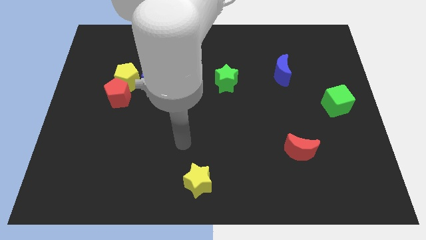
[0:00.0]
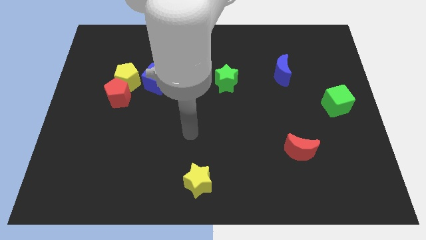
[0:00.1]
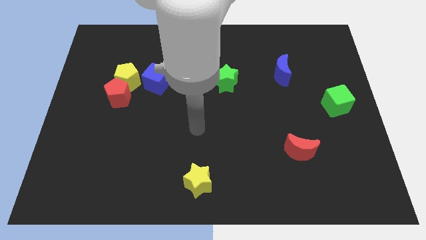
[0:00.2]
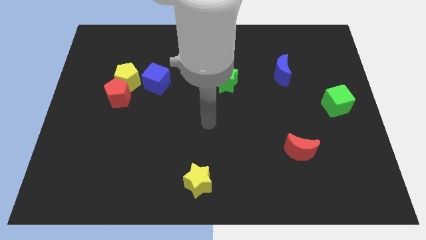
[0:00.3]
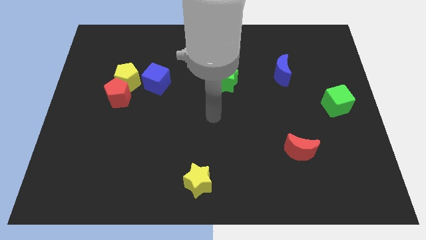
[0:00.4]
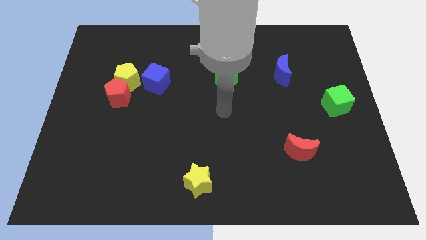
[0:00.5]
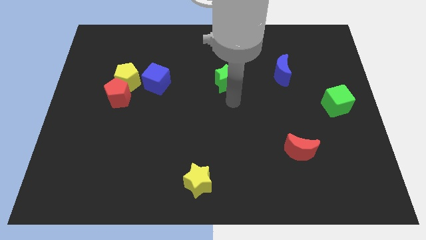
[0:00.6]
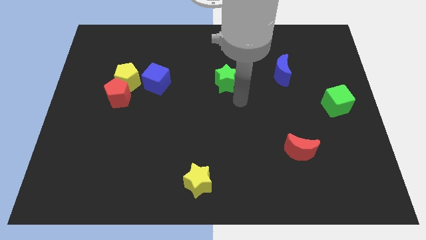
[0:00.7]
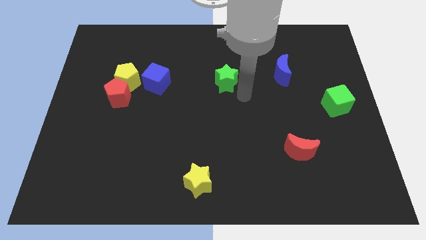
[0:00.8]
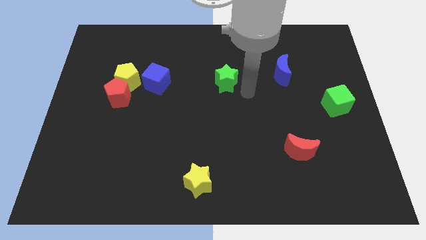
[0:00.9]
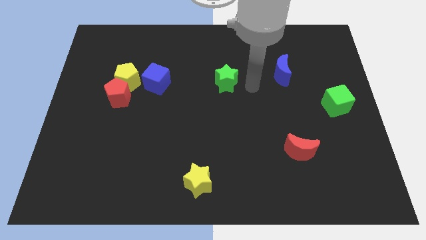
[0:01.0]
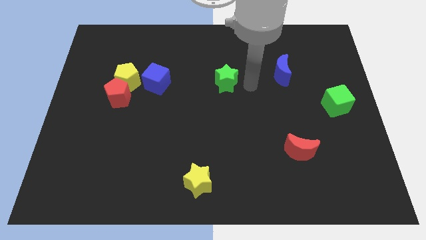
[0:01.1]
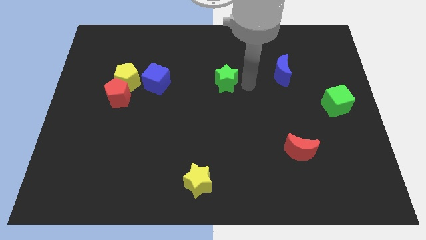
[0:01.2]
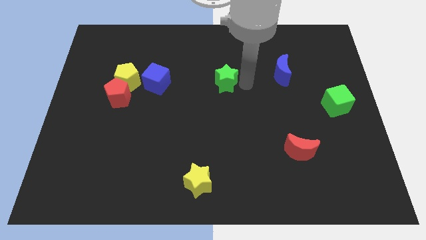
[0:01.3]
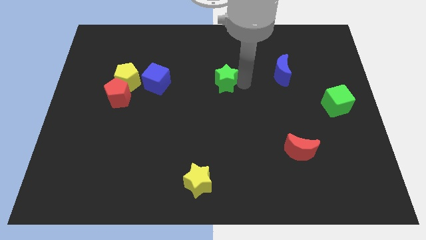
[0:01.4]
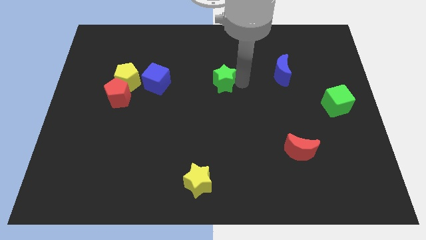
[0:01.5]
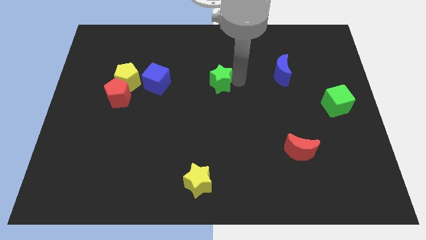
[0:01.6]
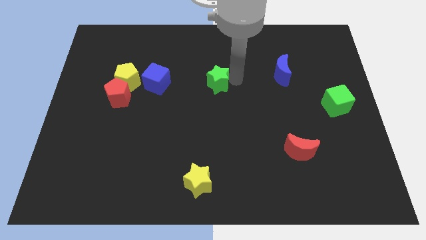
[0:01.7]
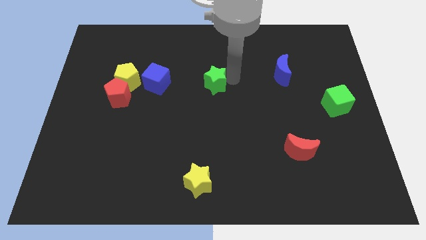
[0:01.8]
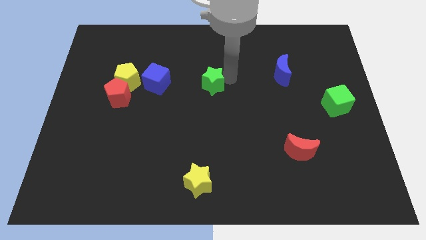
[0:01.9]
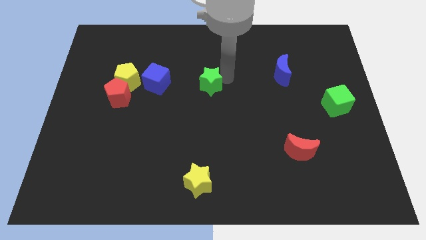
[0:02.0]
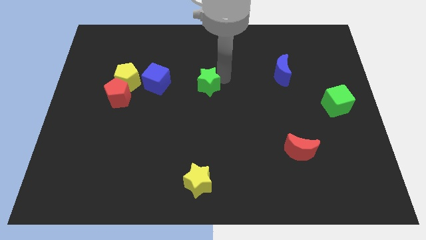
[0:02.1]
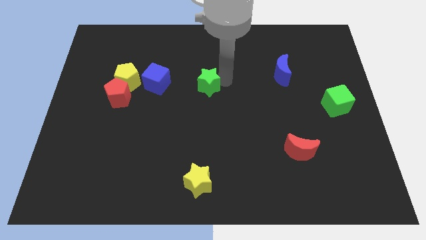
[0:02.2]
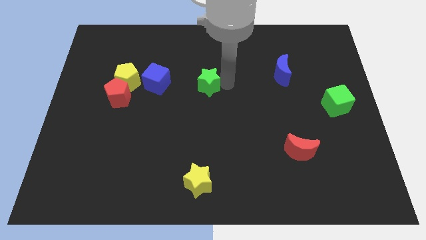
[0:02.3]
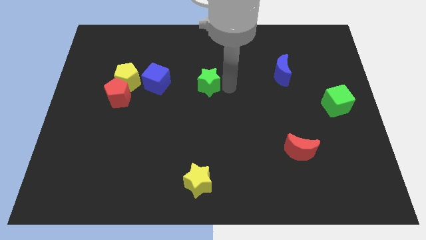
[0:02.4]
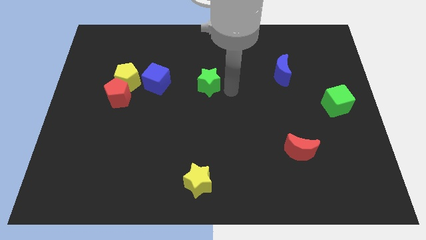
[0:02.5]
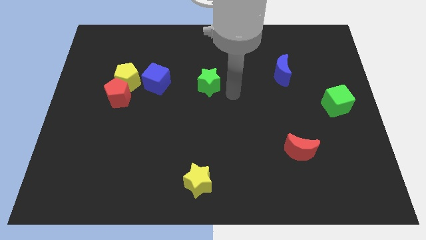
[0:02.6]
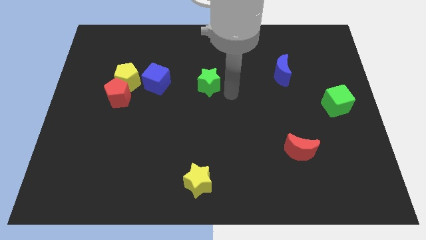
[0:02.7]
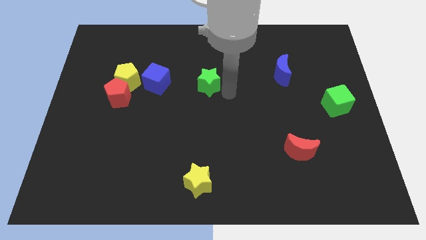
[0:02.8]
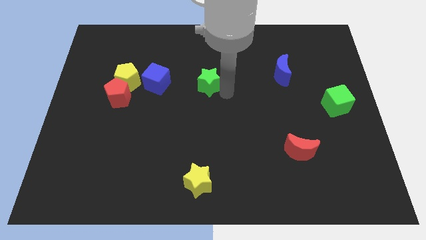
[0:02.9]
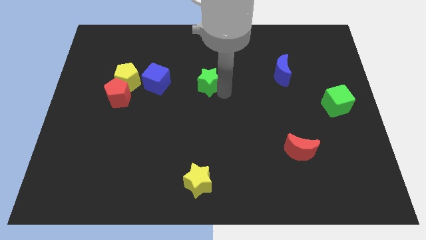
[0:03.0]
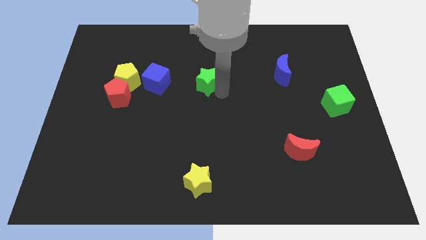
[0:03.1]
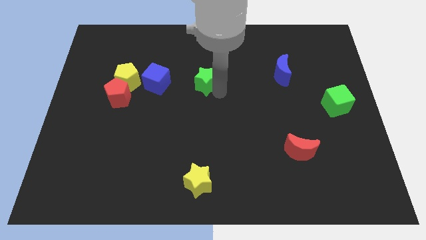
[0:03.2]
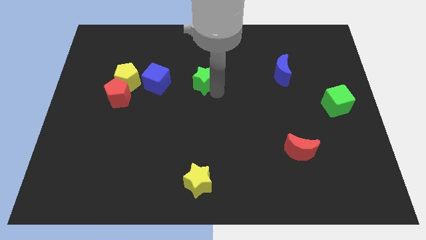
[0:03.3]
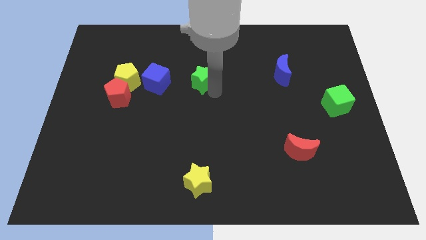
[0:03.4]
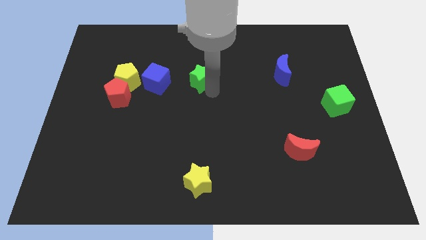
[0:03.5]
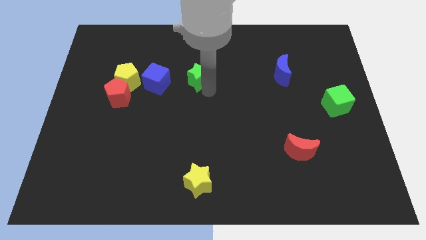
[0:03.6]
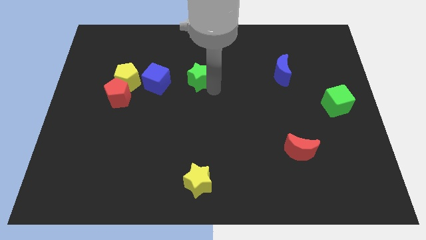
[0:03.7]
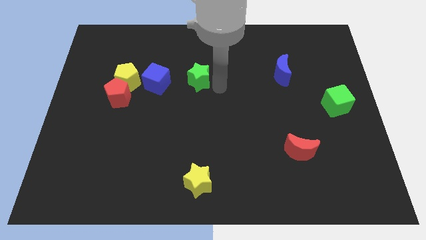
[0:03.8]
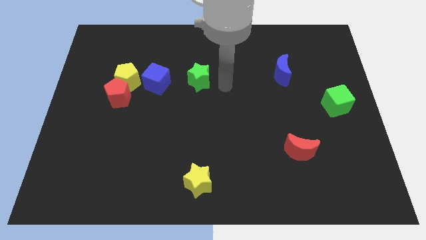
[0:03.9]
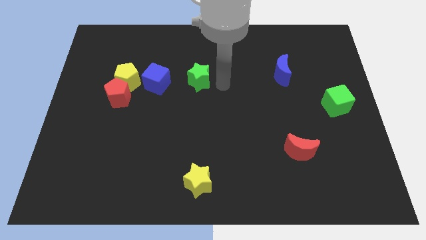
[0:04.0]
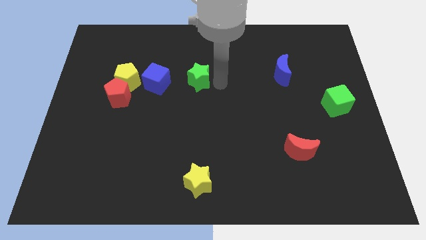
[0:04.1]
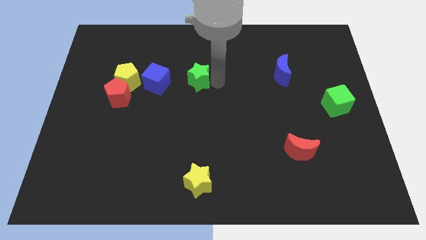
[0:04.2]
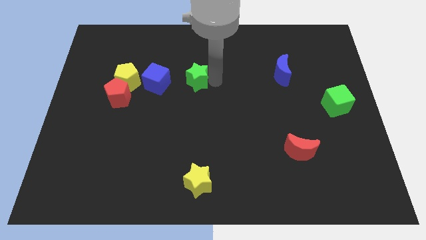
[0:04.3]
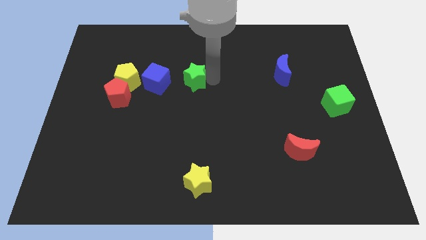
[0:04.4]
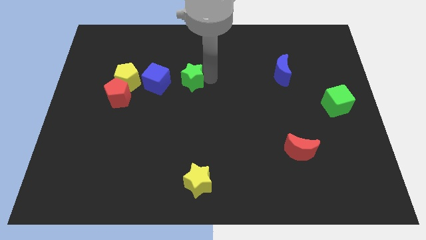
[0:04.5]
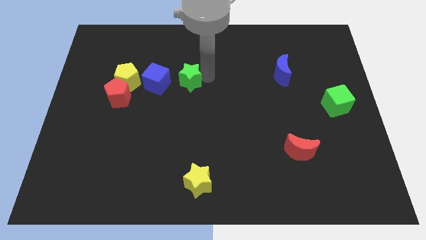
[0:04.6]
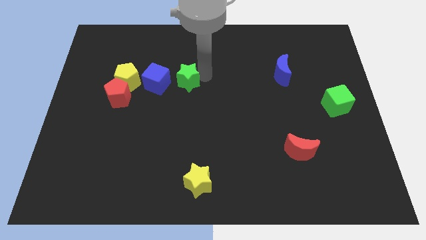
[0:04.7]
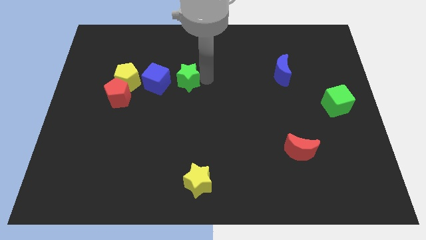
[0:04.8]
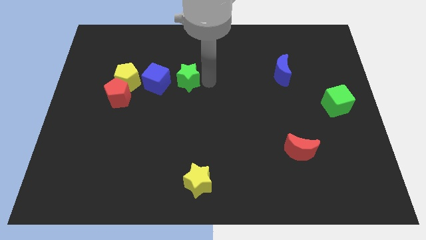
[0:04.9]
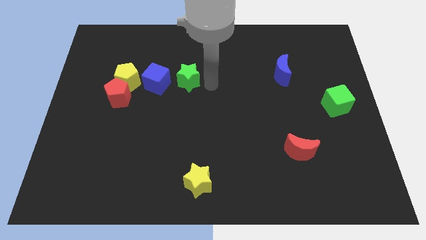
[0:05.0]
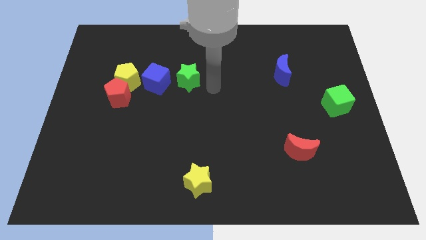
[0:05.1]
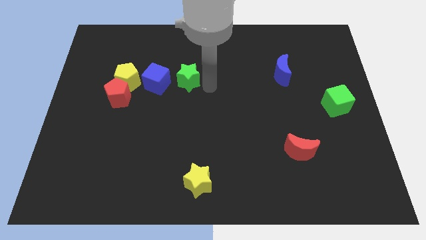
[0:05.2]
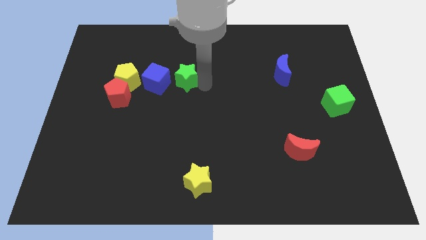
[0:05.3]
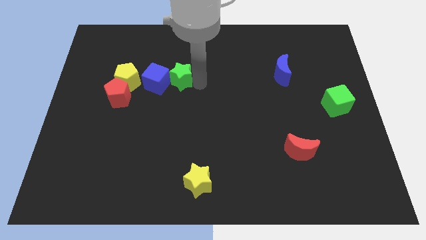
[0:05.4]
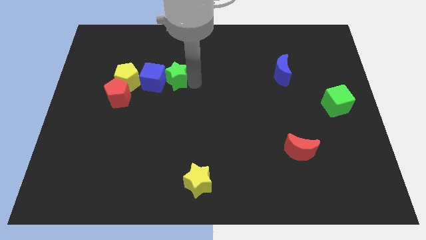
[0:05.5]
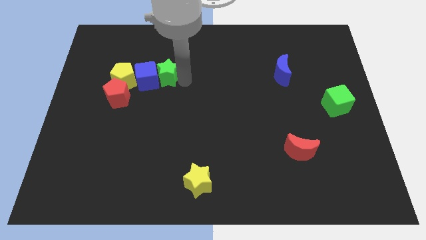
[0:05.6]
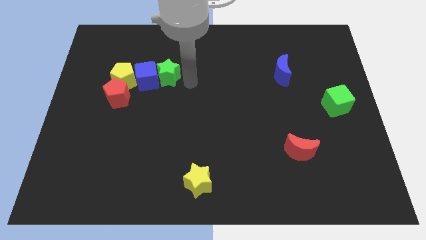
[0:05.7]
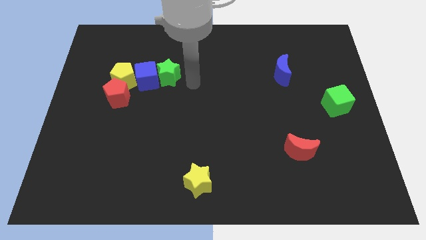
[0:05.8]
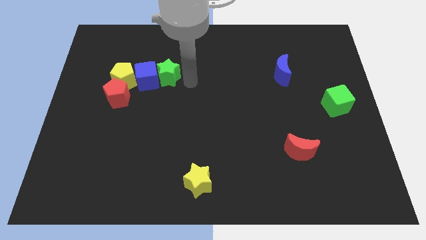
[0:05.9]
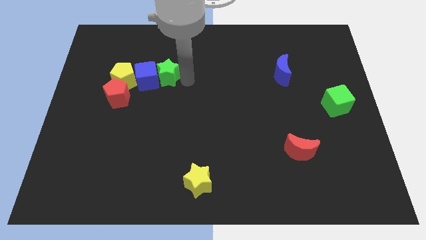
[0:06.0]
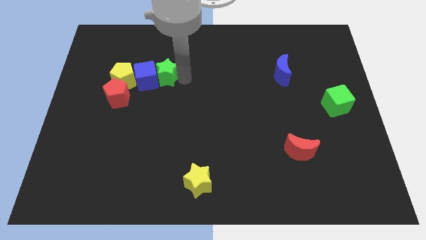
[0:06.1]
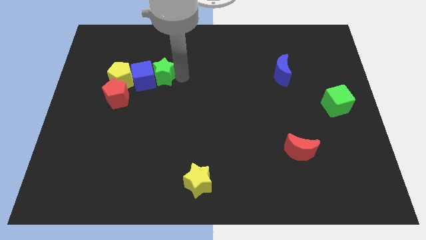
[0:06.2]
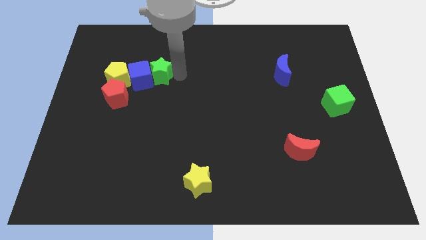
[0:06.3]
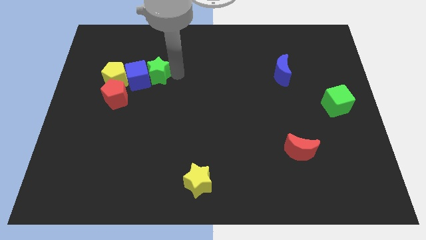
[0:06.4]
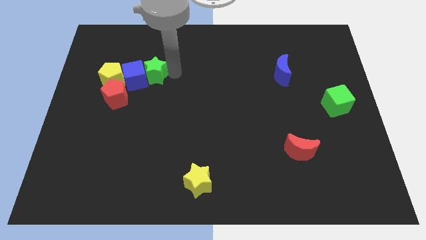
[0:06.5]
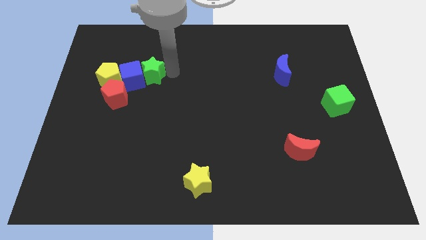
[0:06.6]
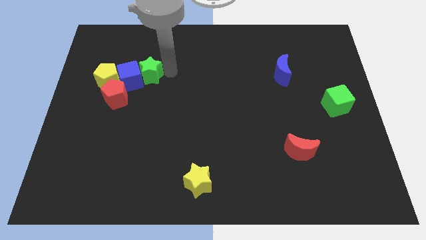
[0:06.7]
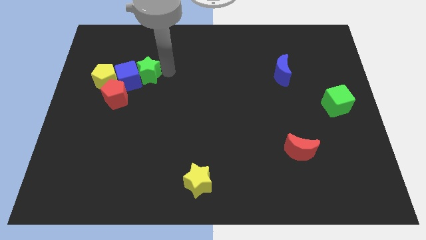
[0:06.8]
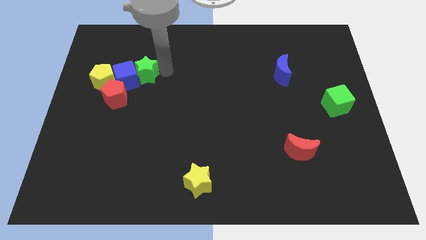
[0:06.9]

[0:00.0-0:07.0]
push the green star left

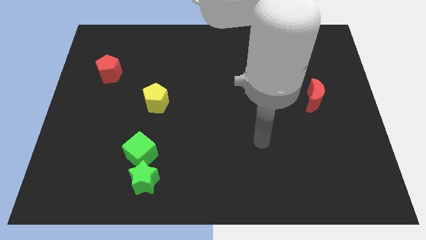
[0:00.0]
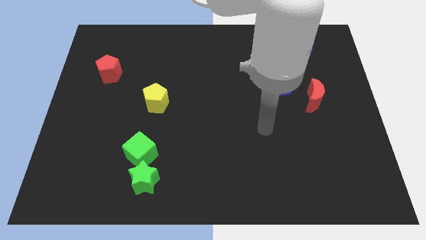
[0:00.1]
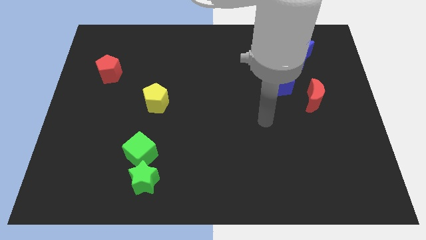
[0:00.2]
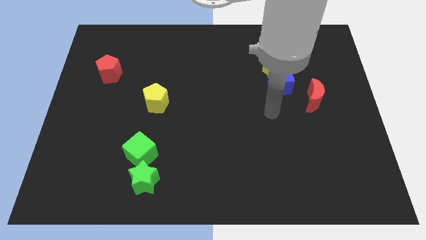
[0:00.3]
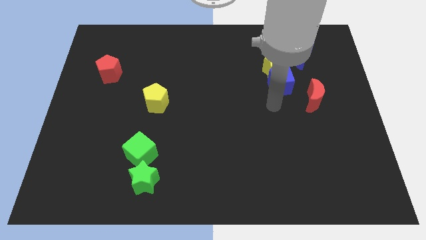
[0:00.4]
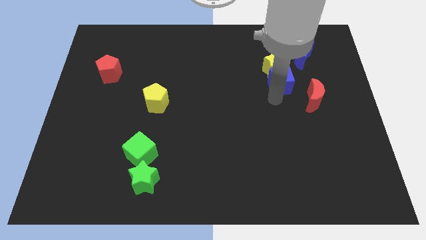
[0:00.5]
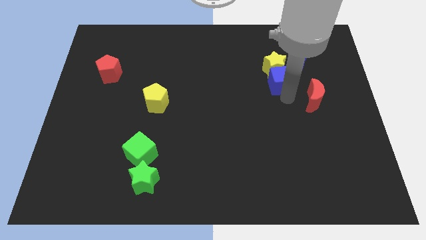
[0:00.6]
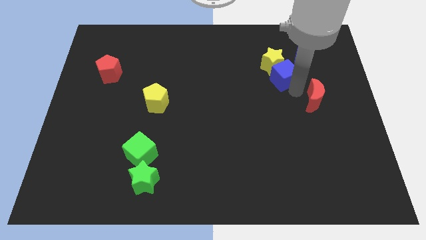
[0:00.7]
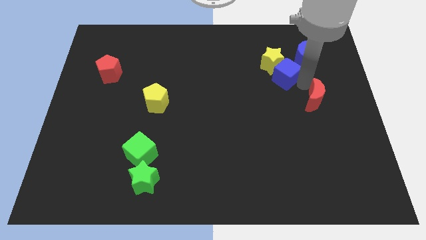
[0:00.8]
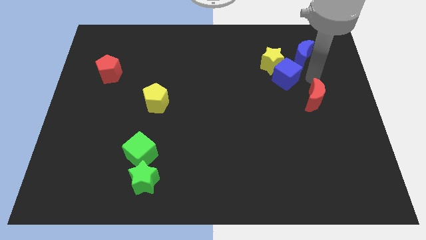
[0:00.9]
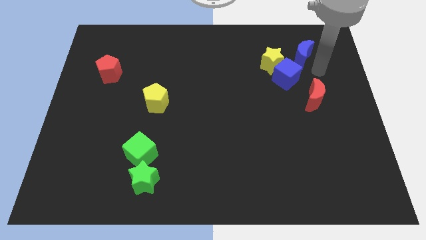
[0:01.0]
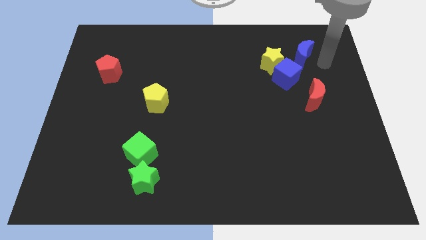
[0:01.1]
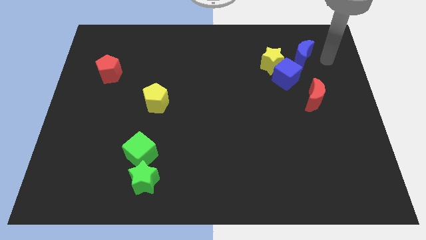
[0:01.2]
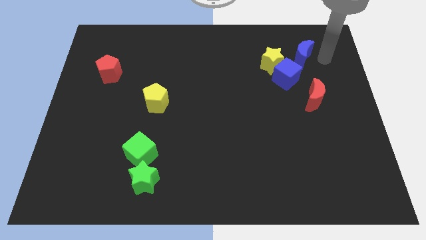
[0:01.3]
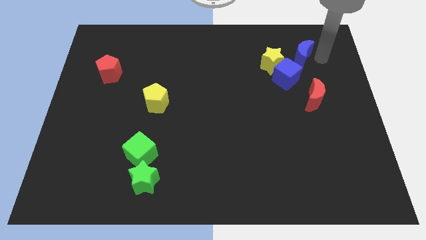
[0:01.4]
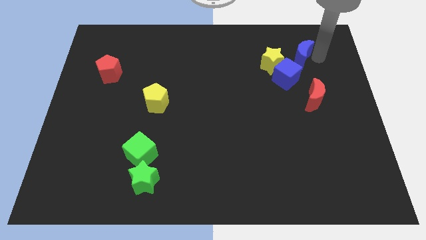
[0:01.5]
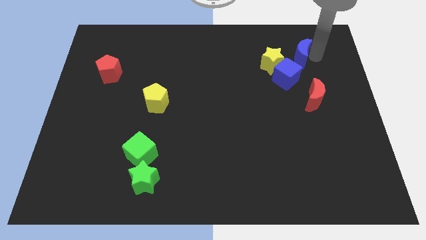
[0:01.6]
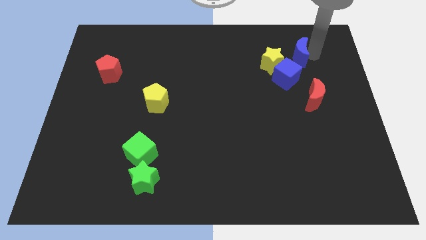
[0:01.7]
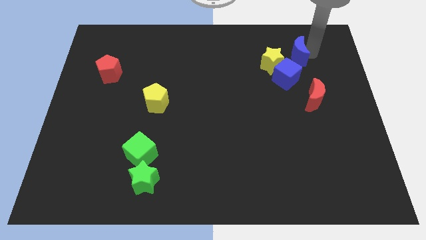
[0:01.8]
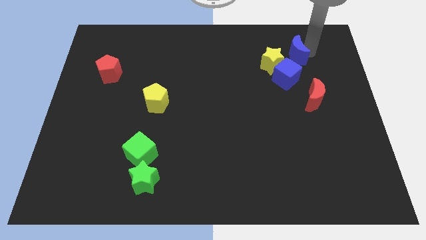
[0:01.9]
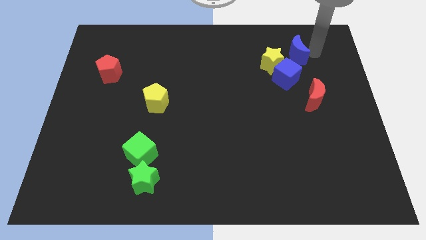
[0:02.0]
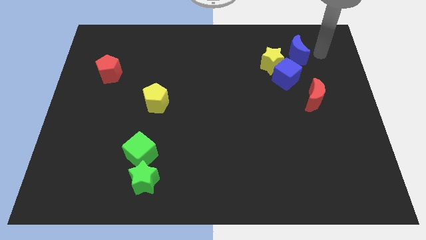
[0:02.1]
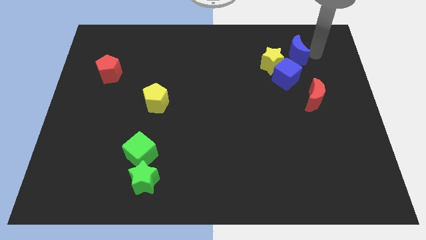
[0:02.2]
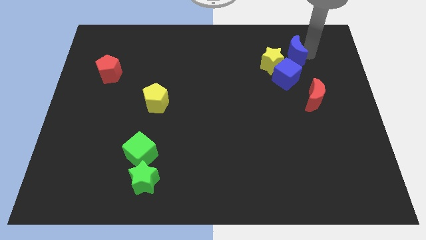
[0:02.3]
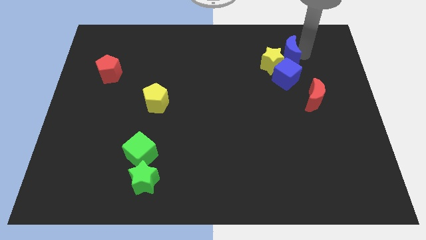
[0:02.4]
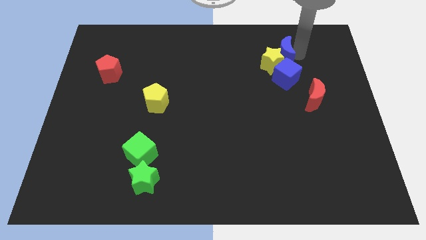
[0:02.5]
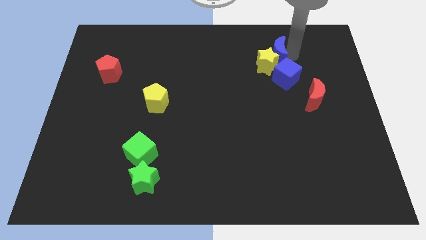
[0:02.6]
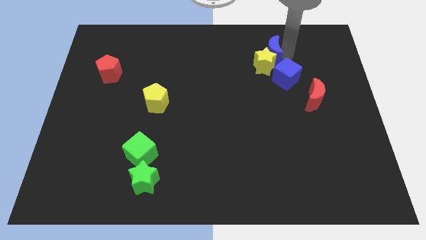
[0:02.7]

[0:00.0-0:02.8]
move the blue moon to the left slightly
